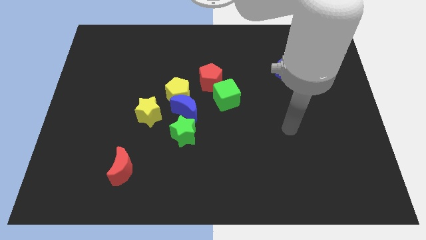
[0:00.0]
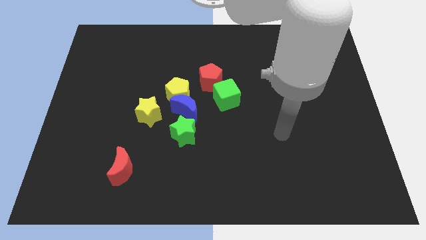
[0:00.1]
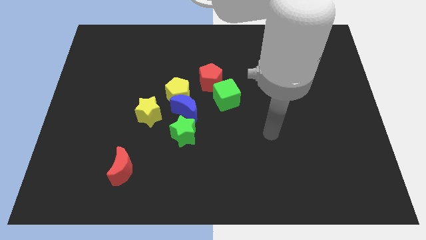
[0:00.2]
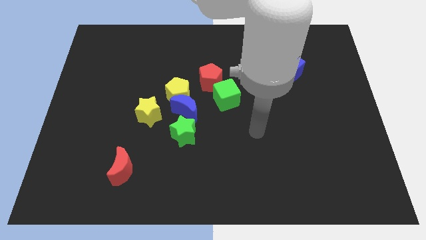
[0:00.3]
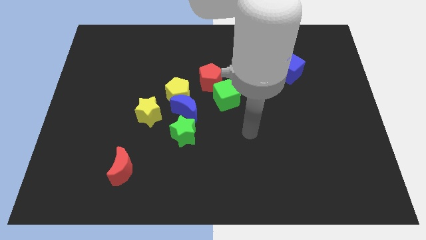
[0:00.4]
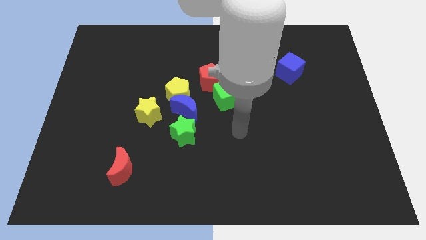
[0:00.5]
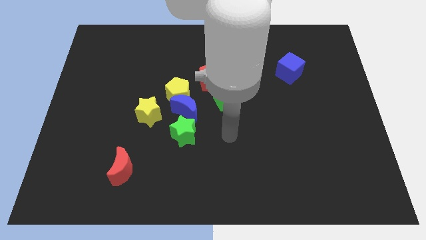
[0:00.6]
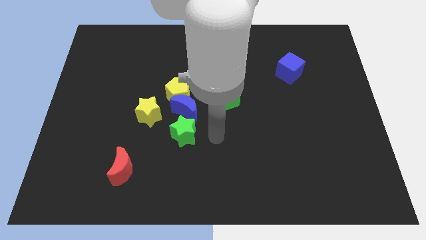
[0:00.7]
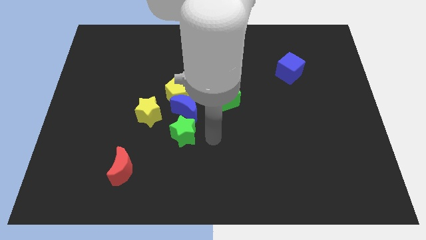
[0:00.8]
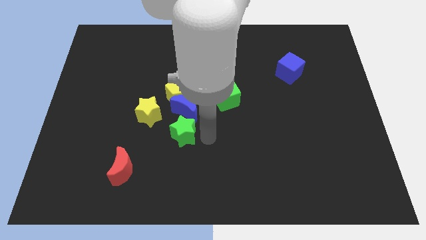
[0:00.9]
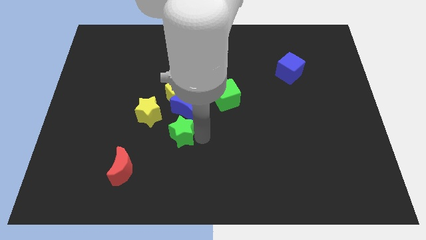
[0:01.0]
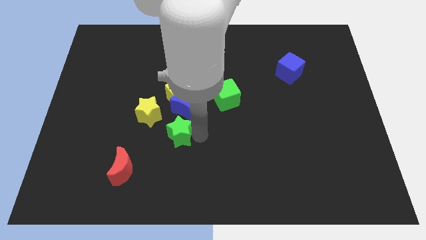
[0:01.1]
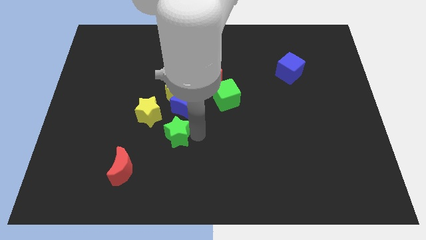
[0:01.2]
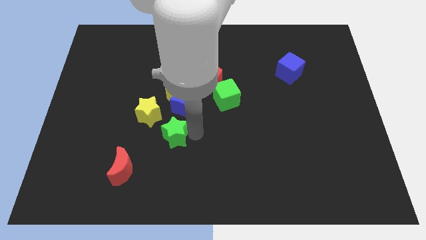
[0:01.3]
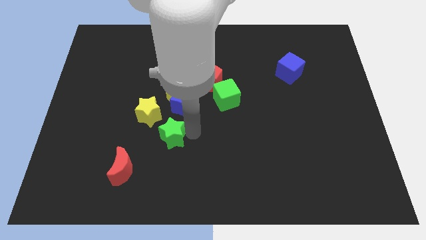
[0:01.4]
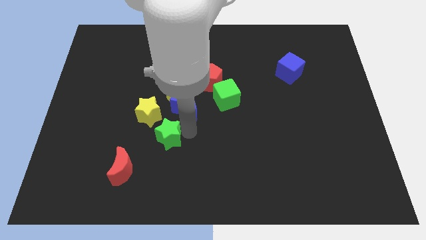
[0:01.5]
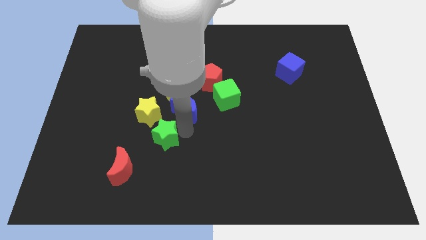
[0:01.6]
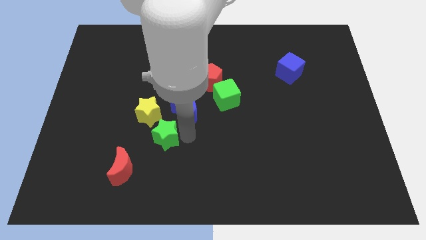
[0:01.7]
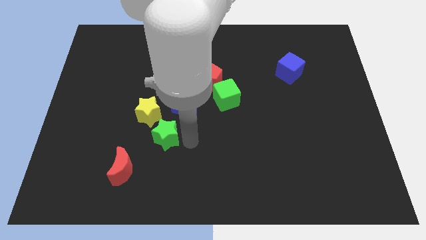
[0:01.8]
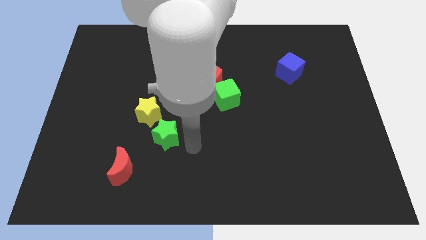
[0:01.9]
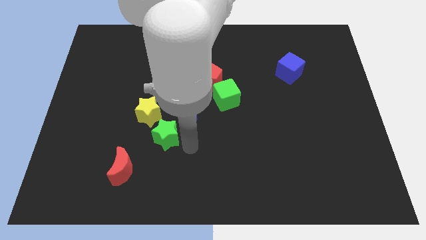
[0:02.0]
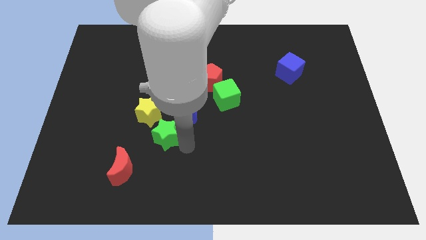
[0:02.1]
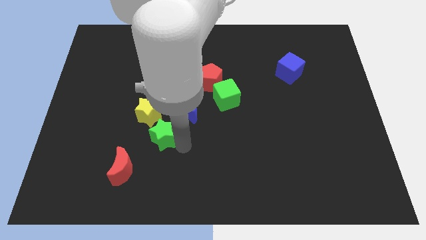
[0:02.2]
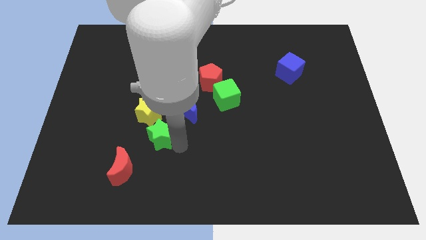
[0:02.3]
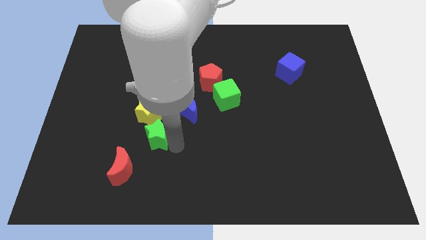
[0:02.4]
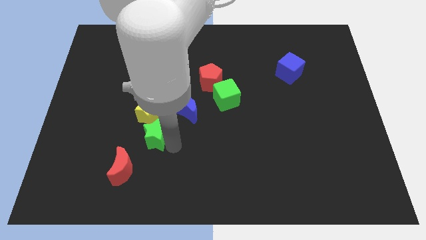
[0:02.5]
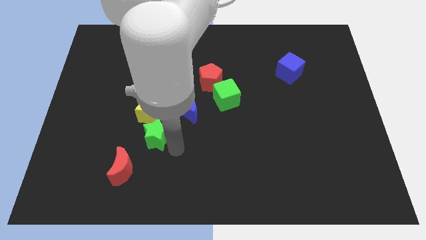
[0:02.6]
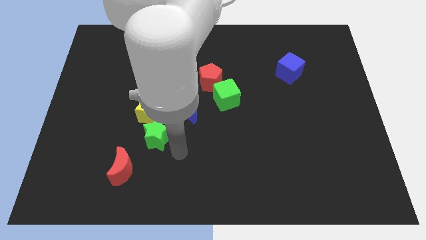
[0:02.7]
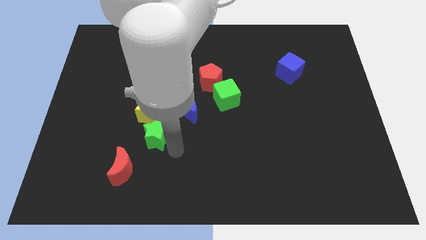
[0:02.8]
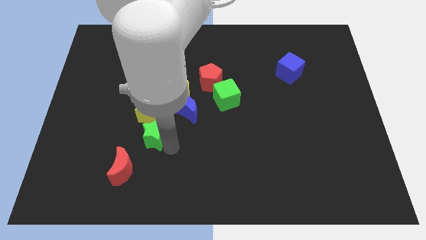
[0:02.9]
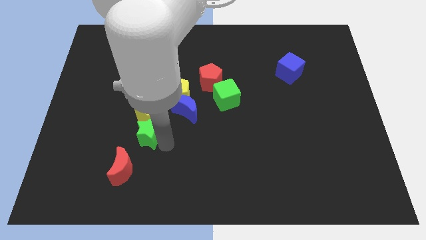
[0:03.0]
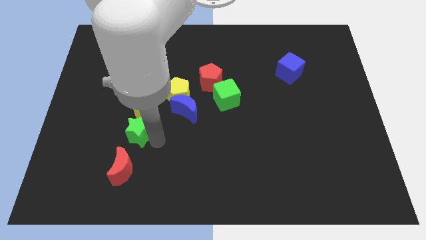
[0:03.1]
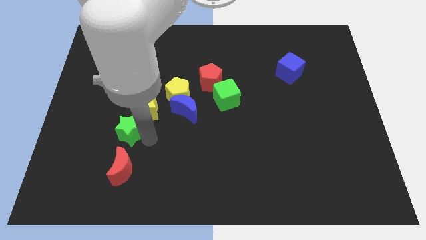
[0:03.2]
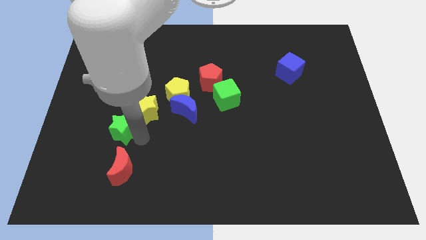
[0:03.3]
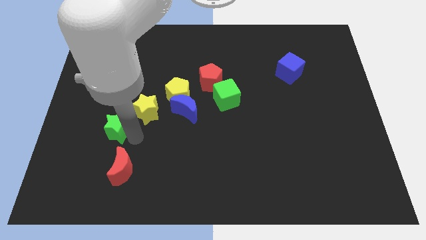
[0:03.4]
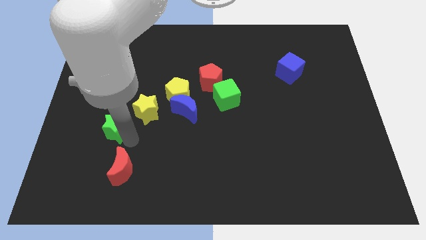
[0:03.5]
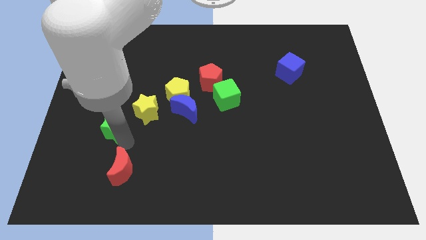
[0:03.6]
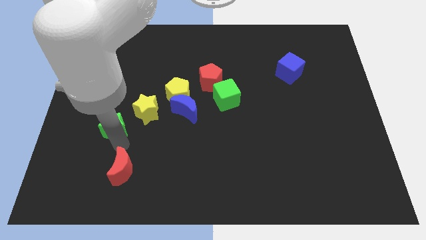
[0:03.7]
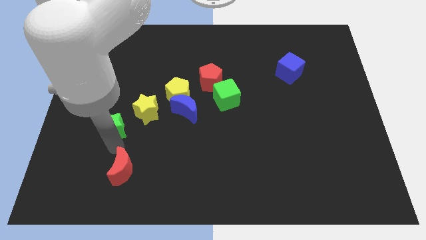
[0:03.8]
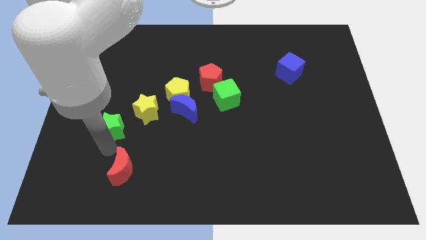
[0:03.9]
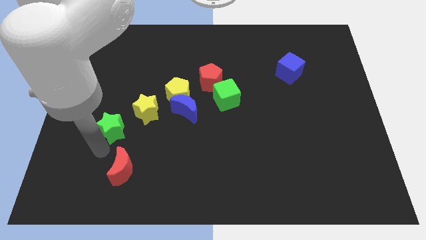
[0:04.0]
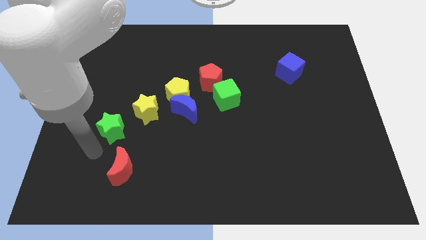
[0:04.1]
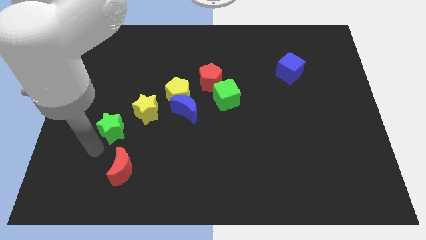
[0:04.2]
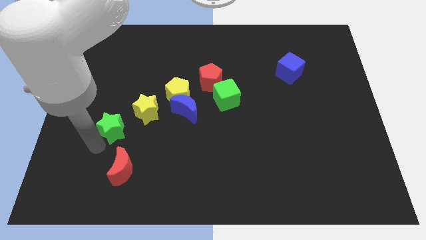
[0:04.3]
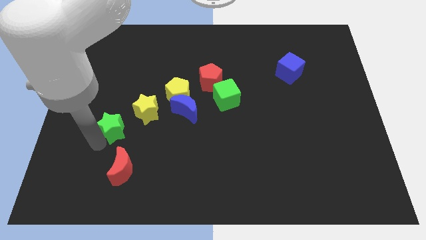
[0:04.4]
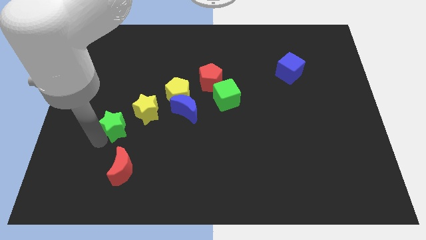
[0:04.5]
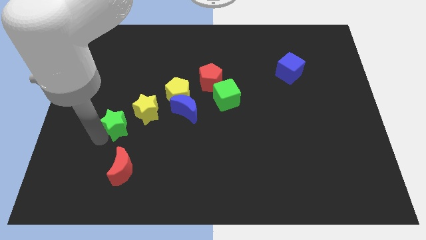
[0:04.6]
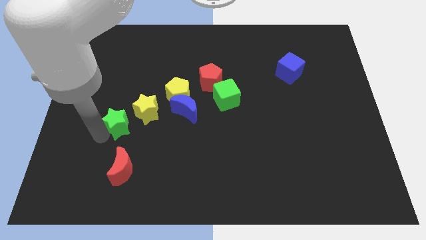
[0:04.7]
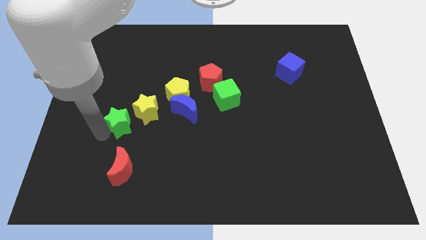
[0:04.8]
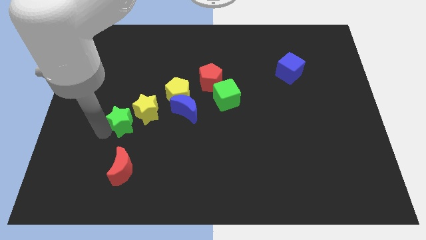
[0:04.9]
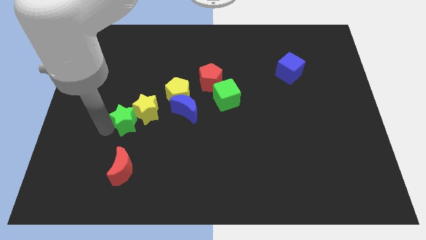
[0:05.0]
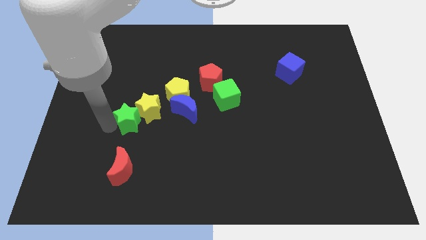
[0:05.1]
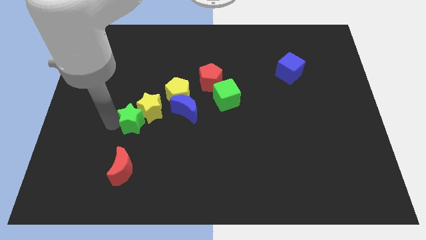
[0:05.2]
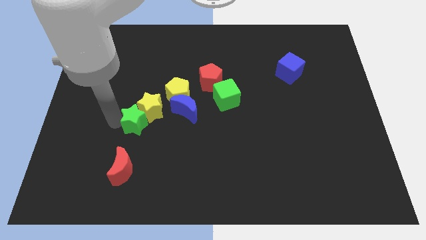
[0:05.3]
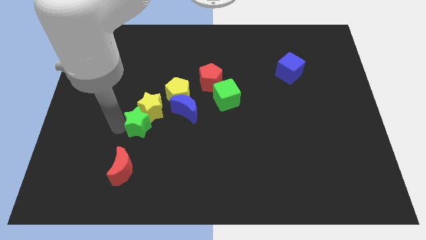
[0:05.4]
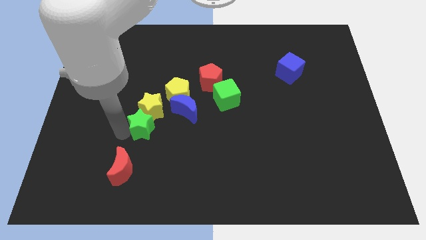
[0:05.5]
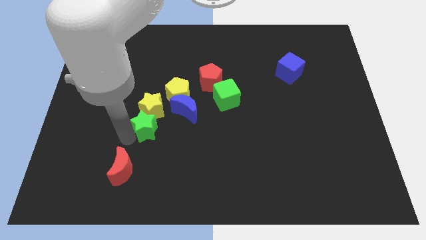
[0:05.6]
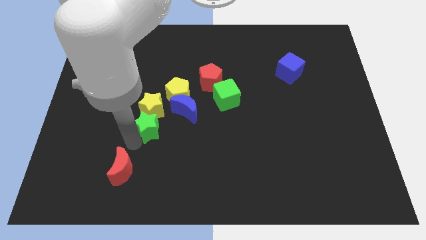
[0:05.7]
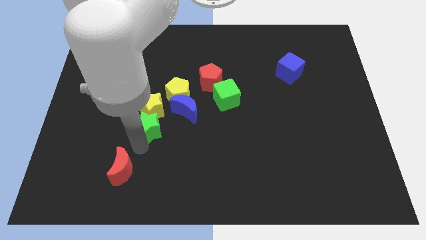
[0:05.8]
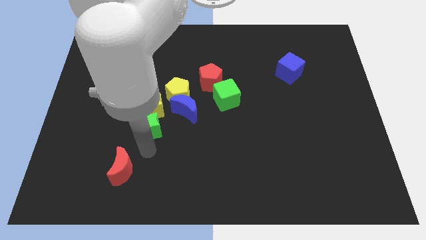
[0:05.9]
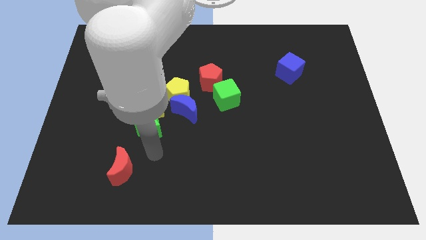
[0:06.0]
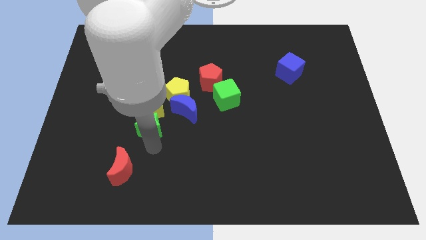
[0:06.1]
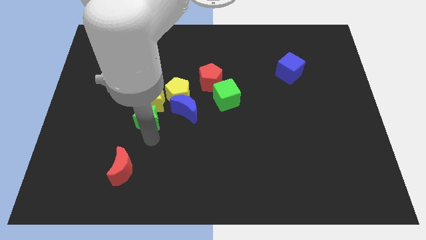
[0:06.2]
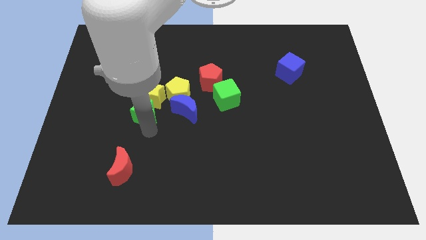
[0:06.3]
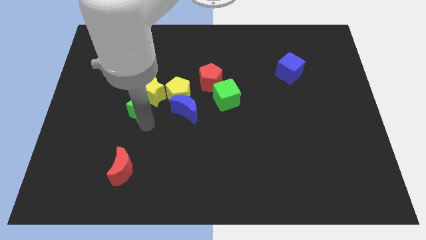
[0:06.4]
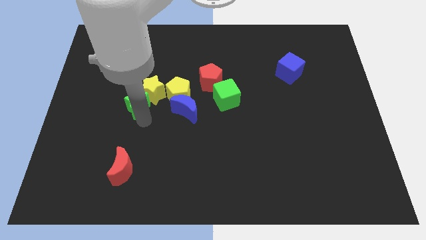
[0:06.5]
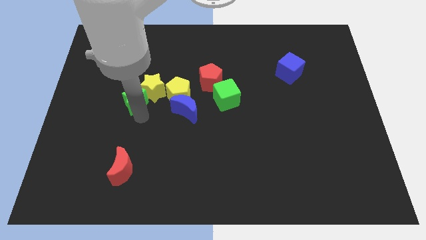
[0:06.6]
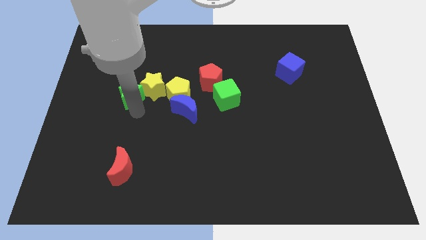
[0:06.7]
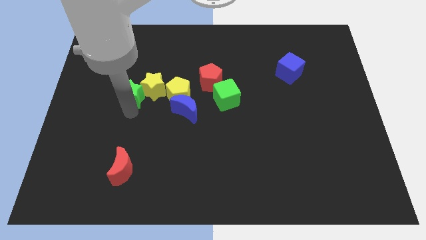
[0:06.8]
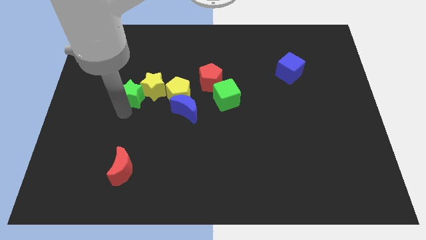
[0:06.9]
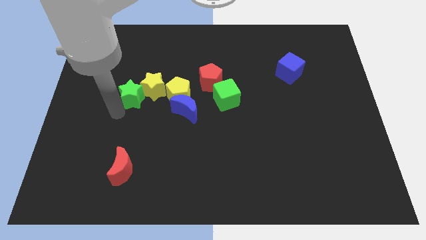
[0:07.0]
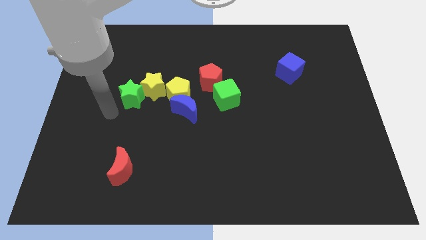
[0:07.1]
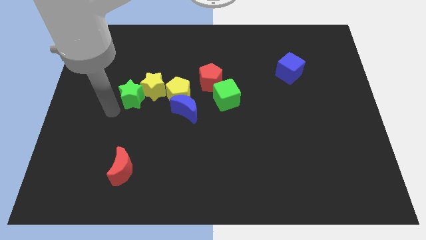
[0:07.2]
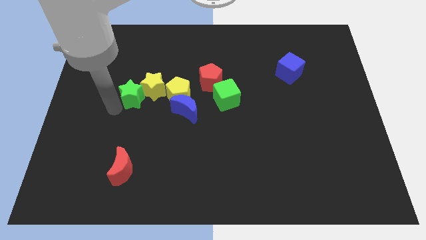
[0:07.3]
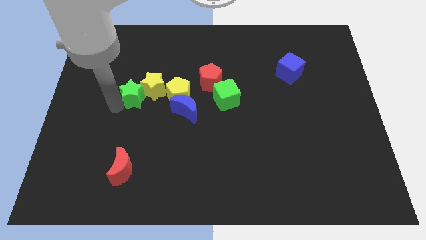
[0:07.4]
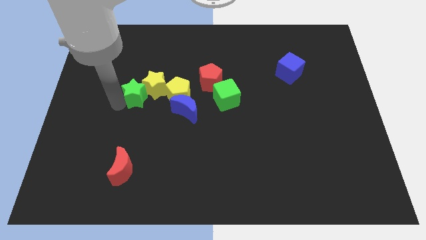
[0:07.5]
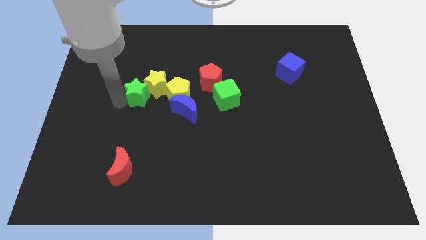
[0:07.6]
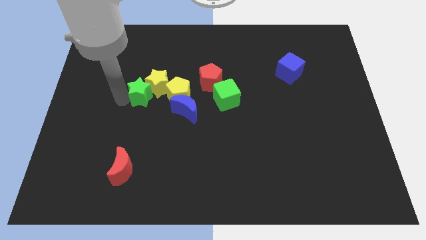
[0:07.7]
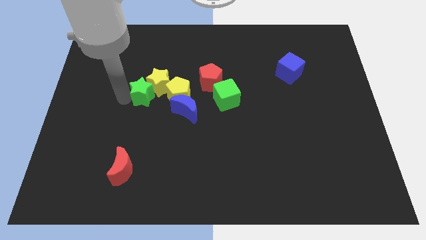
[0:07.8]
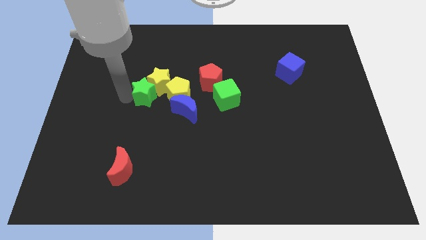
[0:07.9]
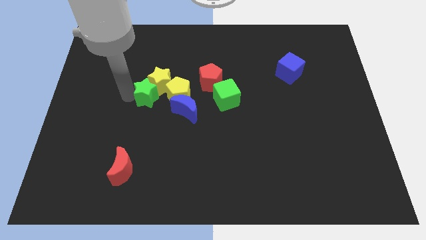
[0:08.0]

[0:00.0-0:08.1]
move the green star upwards slightly
